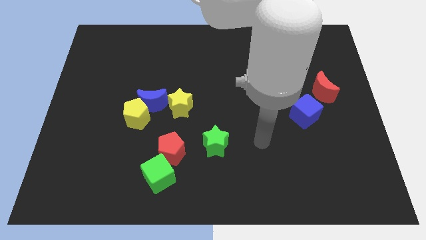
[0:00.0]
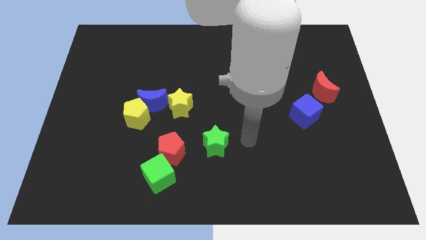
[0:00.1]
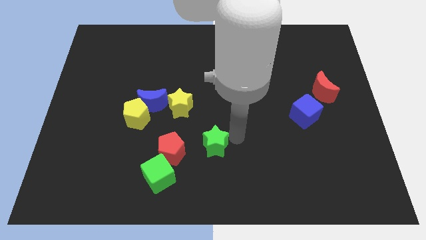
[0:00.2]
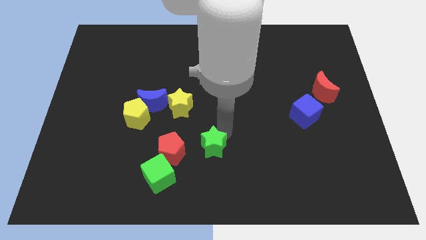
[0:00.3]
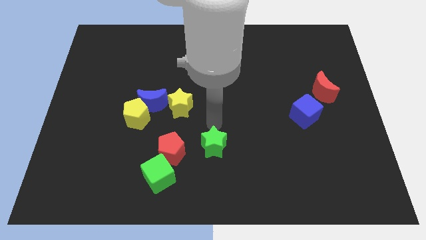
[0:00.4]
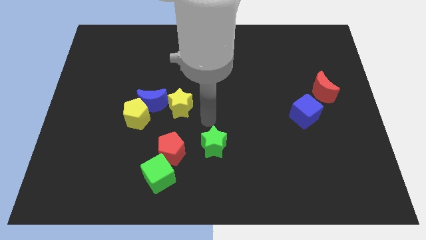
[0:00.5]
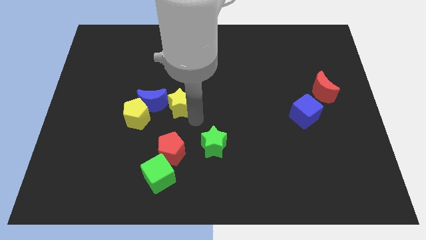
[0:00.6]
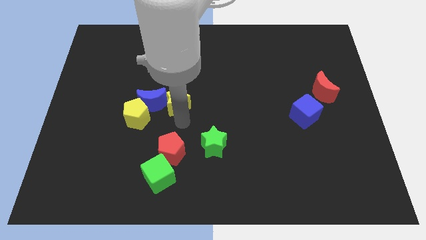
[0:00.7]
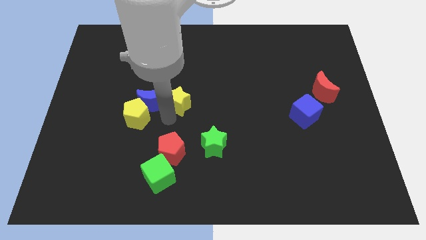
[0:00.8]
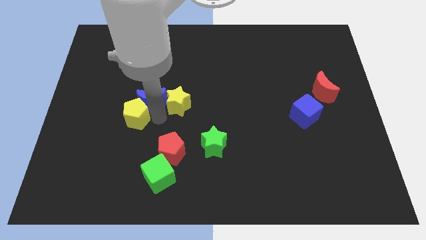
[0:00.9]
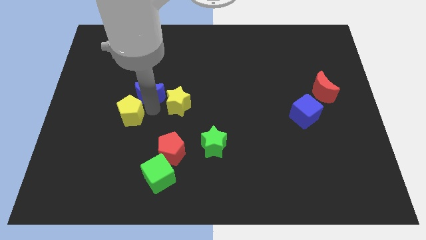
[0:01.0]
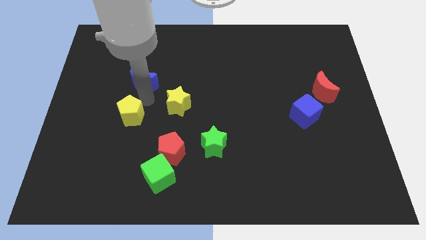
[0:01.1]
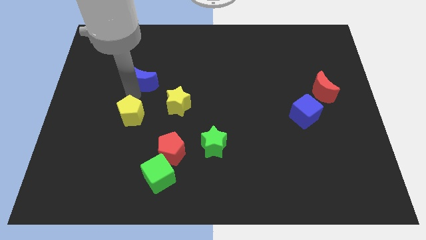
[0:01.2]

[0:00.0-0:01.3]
separate the yellow pentagon from the blue moon

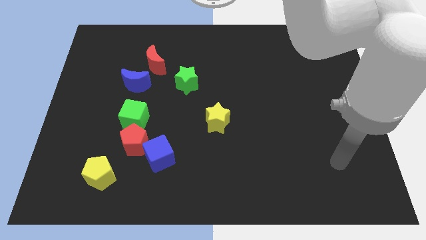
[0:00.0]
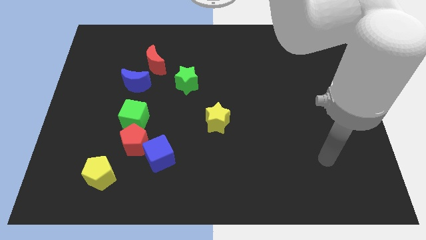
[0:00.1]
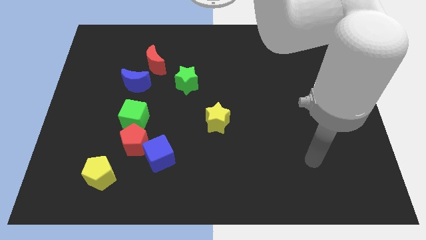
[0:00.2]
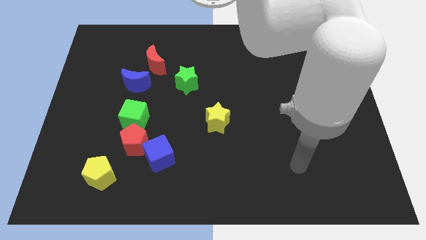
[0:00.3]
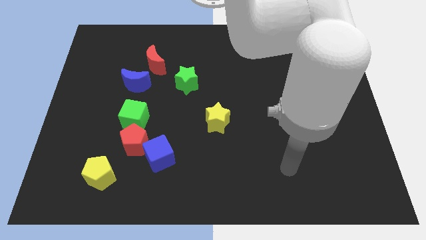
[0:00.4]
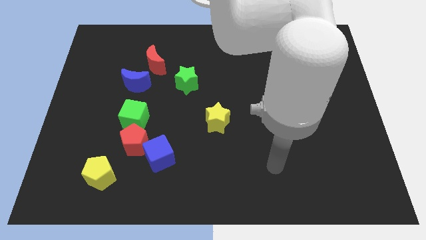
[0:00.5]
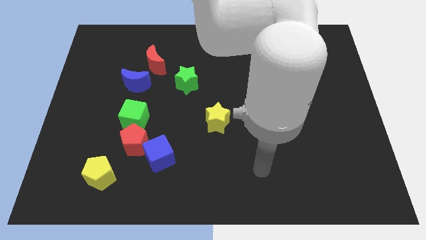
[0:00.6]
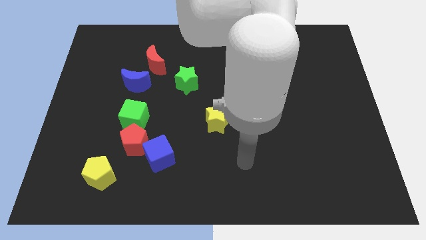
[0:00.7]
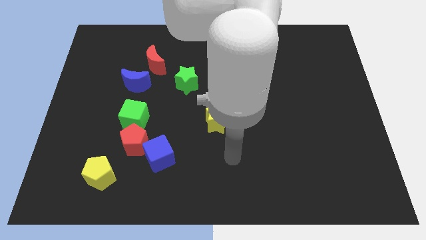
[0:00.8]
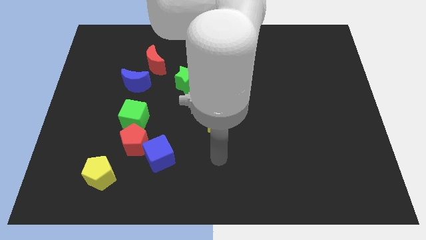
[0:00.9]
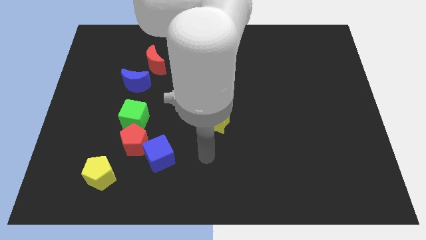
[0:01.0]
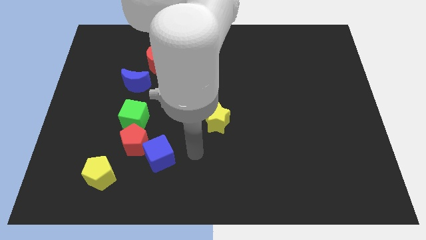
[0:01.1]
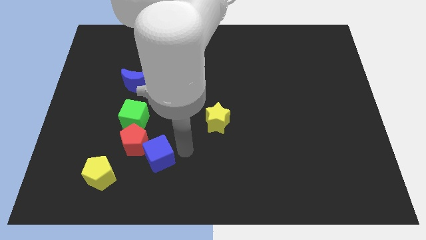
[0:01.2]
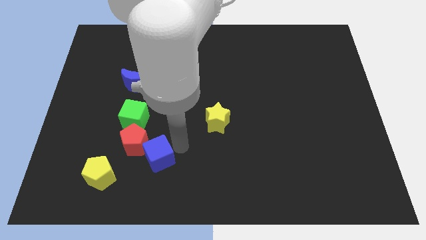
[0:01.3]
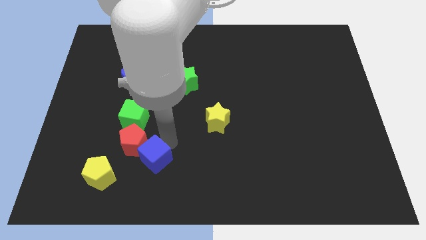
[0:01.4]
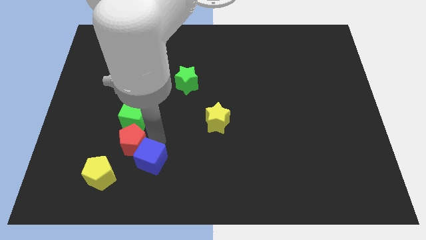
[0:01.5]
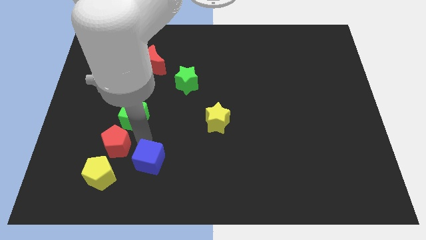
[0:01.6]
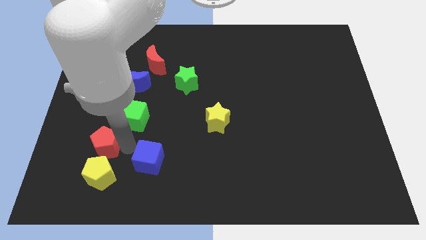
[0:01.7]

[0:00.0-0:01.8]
pull the blue cube apart from the red pentagon

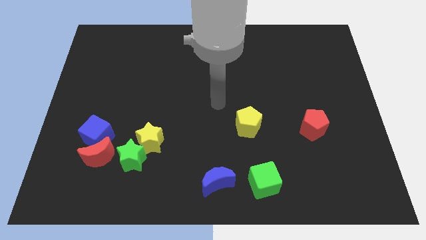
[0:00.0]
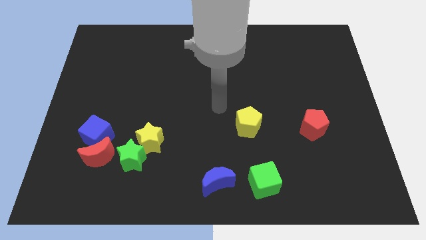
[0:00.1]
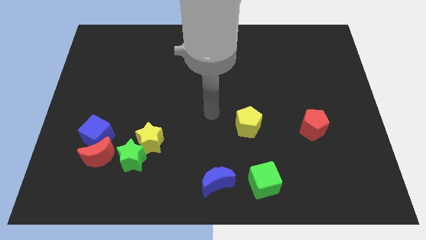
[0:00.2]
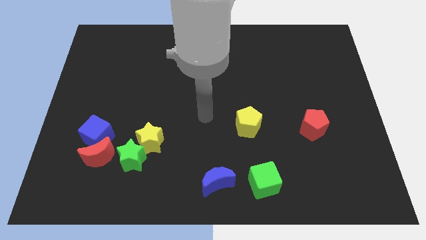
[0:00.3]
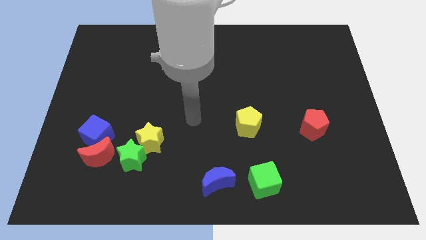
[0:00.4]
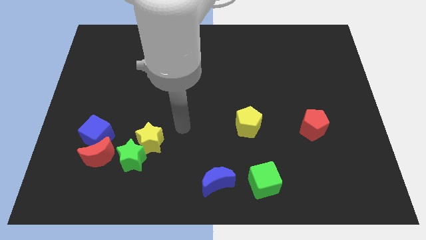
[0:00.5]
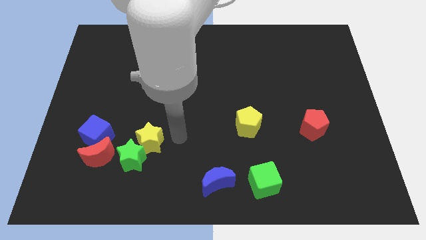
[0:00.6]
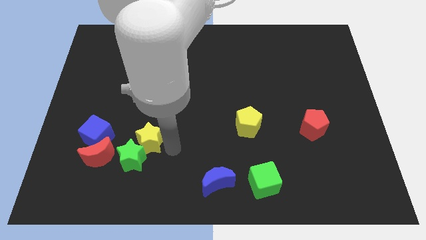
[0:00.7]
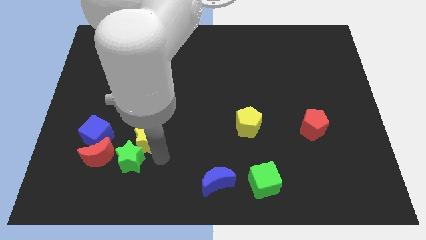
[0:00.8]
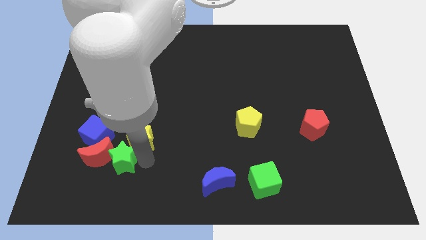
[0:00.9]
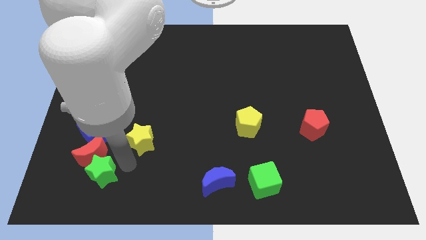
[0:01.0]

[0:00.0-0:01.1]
pull the yellow star apart from the green star

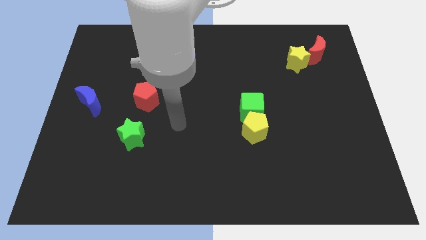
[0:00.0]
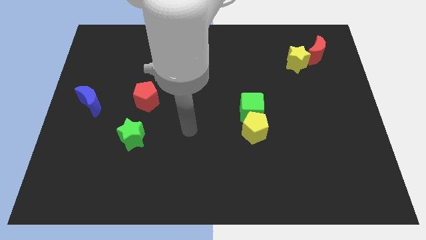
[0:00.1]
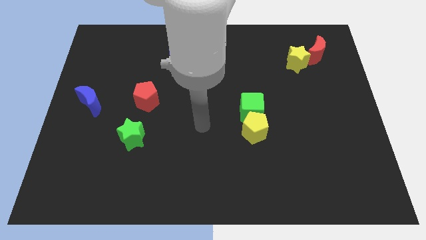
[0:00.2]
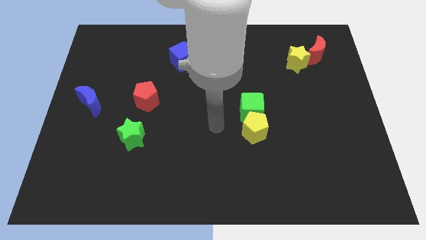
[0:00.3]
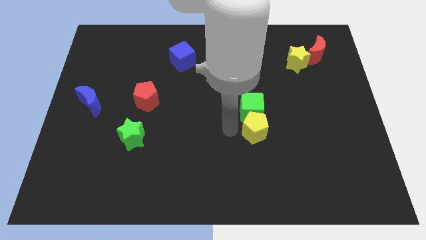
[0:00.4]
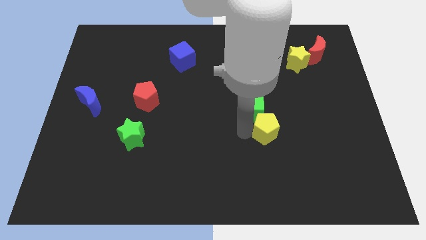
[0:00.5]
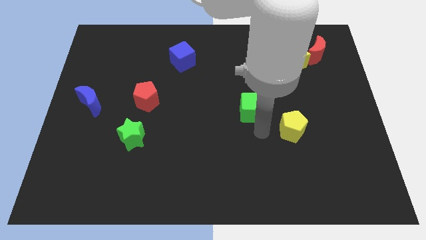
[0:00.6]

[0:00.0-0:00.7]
separate the green cube from the yellow pentagon

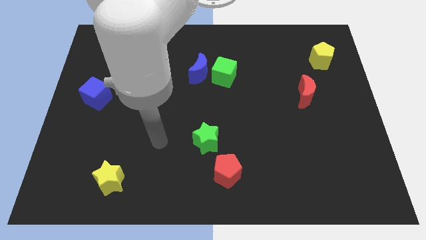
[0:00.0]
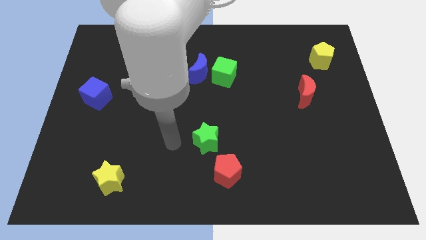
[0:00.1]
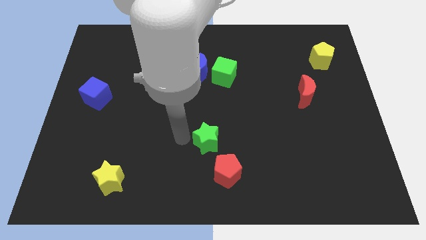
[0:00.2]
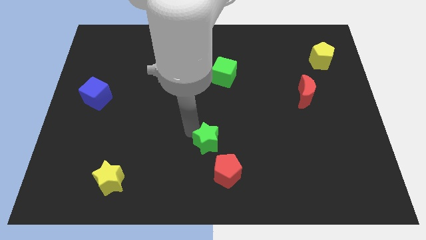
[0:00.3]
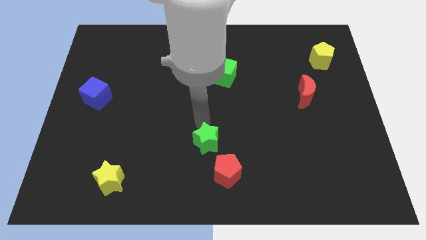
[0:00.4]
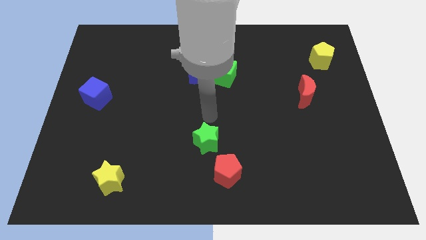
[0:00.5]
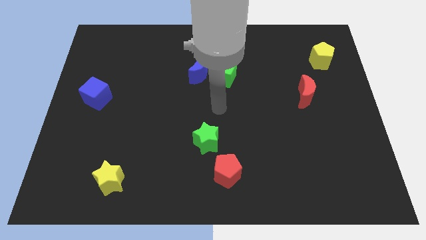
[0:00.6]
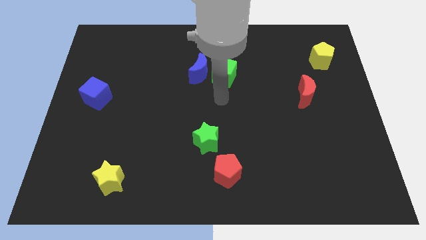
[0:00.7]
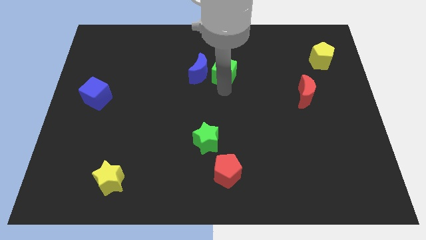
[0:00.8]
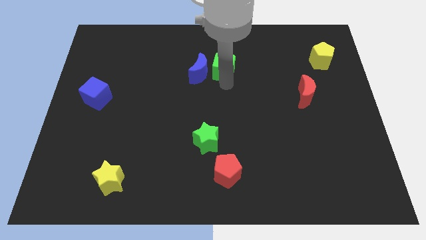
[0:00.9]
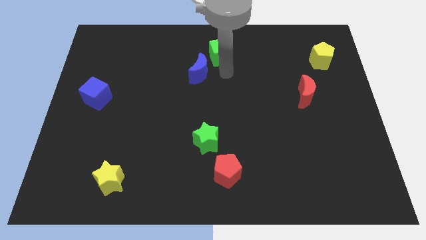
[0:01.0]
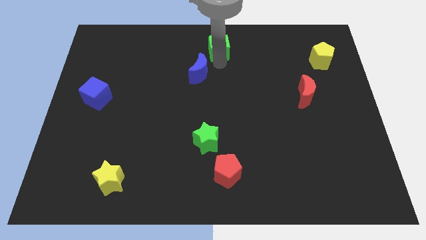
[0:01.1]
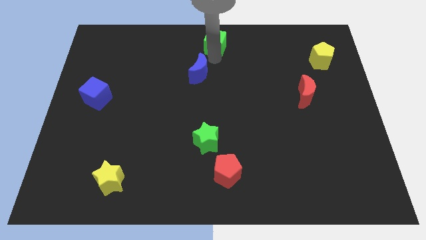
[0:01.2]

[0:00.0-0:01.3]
separate the blue moon from the green cube

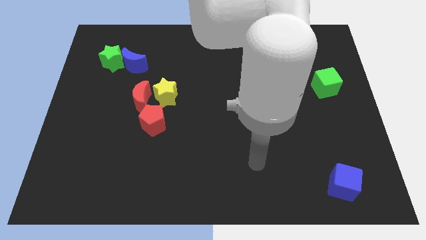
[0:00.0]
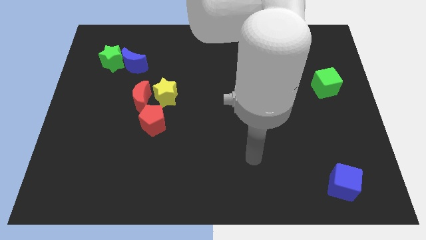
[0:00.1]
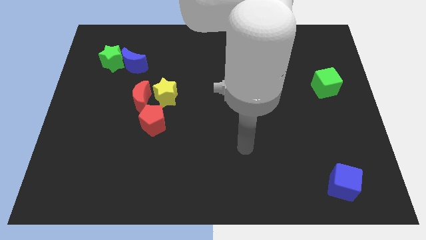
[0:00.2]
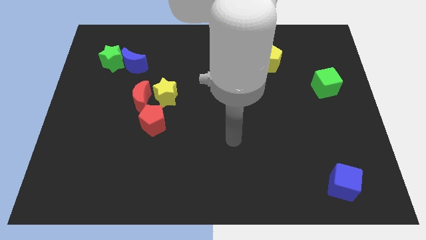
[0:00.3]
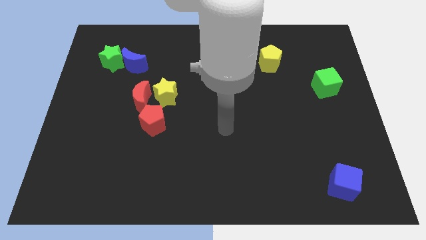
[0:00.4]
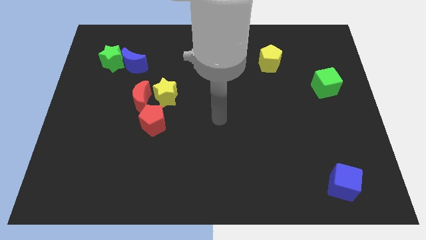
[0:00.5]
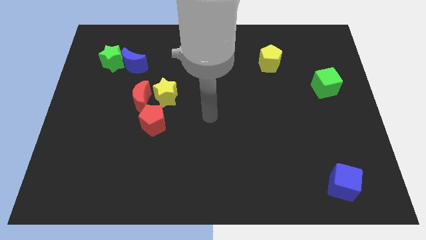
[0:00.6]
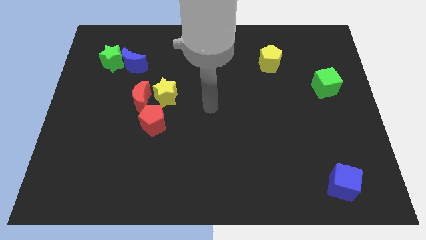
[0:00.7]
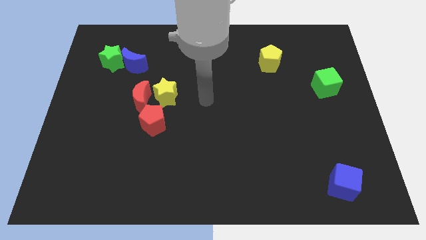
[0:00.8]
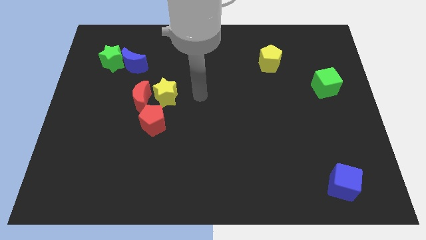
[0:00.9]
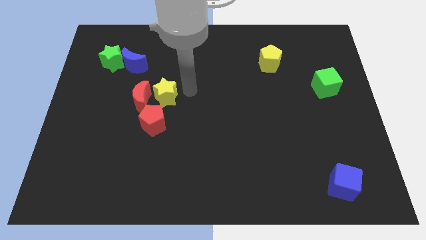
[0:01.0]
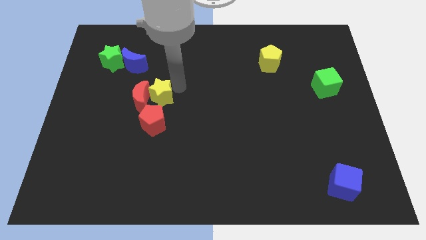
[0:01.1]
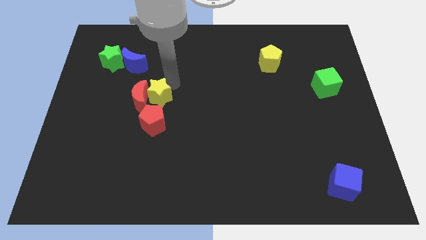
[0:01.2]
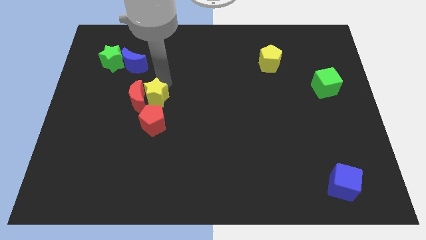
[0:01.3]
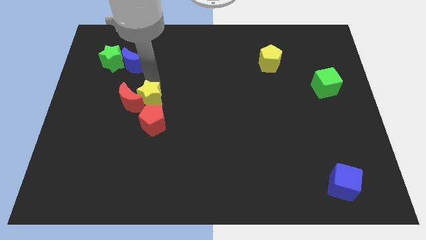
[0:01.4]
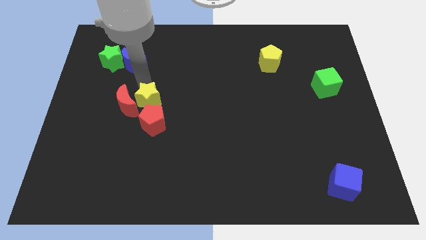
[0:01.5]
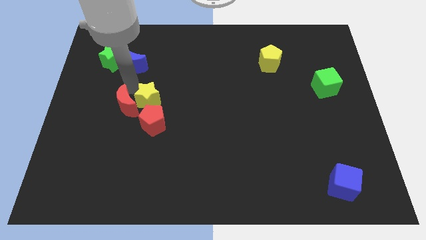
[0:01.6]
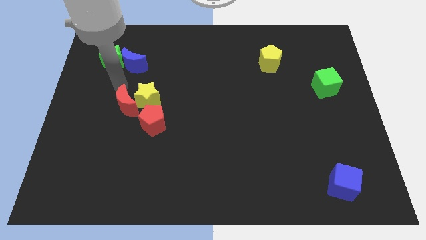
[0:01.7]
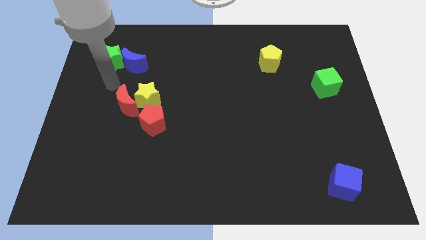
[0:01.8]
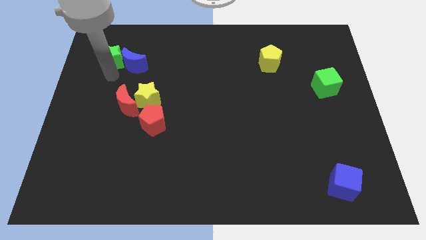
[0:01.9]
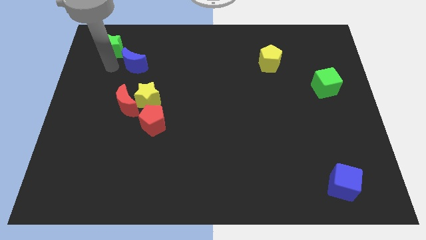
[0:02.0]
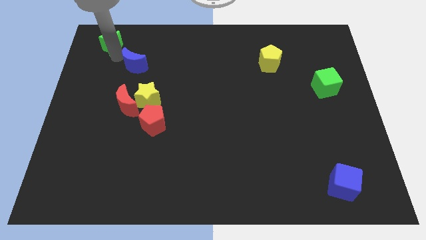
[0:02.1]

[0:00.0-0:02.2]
pull the blue moon apart from the green star

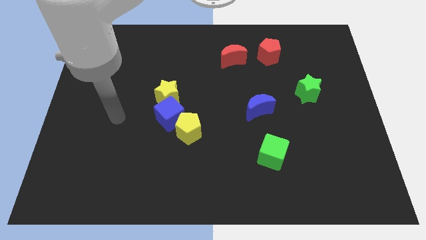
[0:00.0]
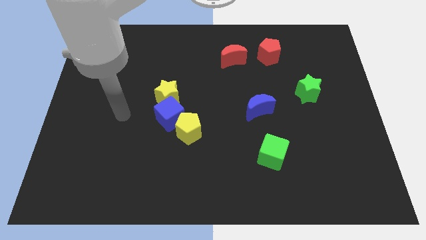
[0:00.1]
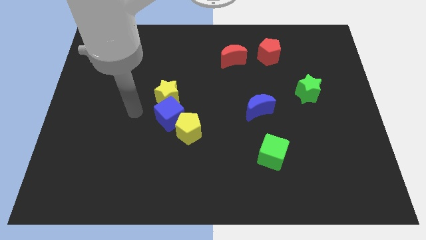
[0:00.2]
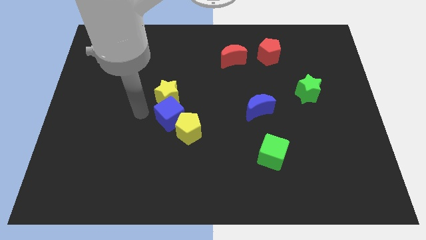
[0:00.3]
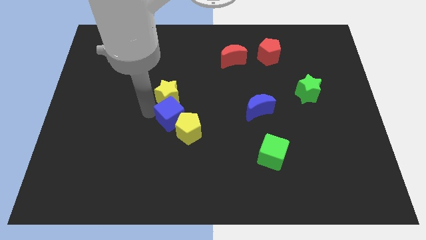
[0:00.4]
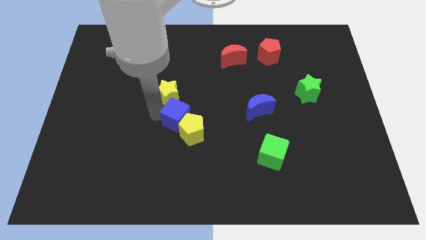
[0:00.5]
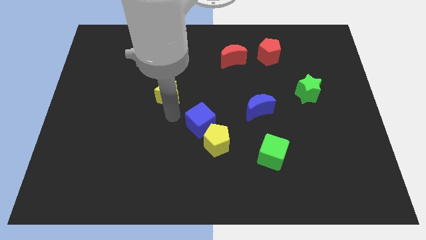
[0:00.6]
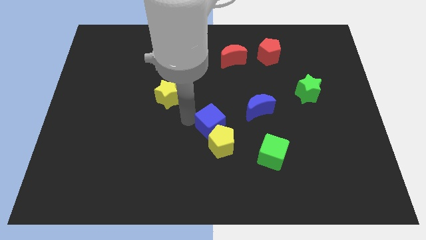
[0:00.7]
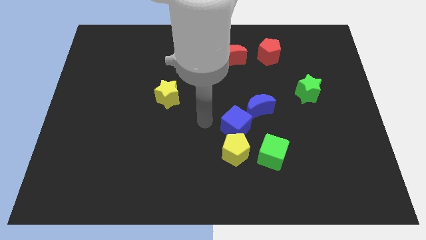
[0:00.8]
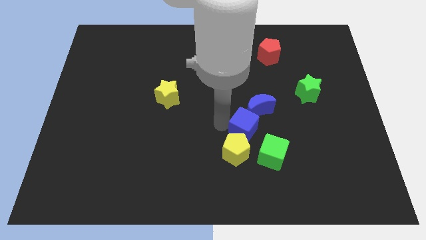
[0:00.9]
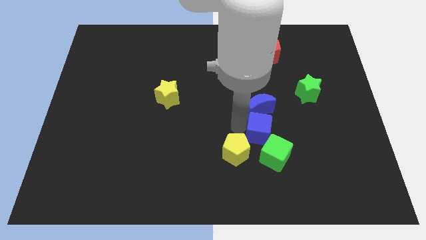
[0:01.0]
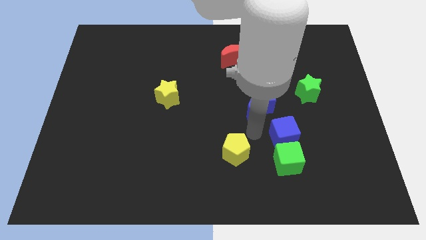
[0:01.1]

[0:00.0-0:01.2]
separate the yellow pentagon from the blue cube
